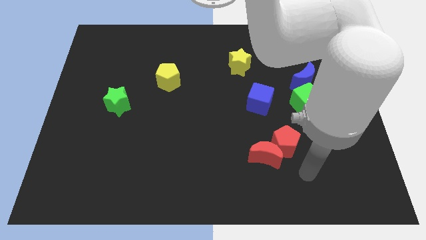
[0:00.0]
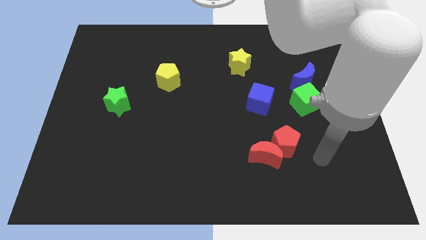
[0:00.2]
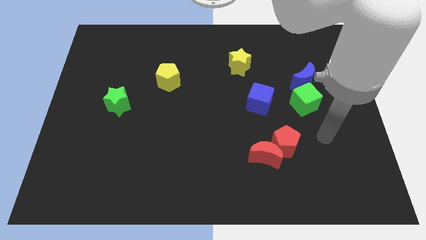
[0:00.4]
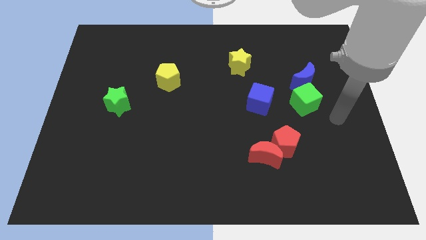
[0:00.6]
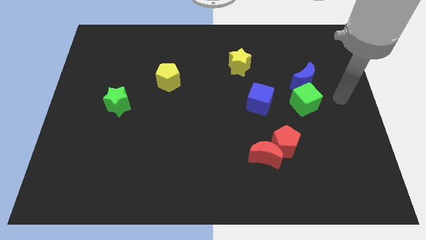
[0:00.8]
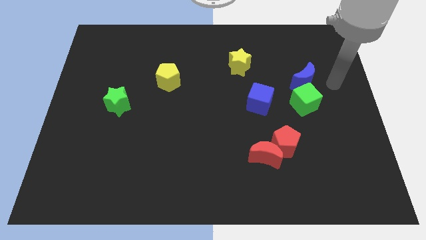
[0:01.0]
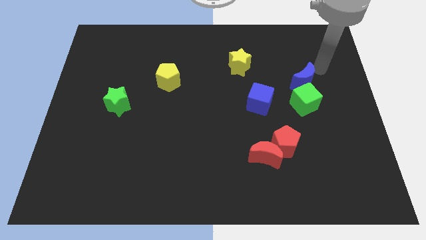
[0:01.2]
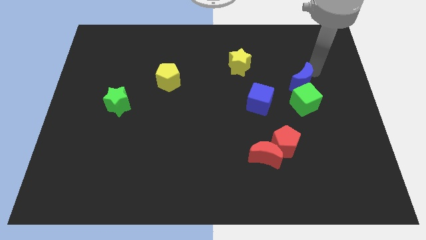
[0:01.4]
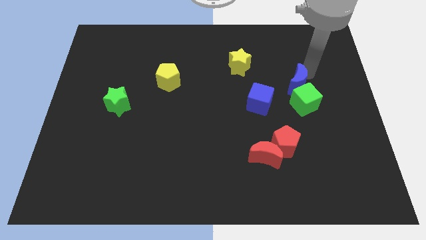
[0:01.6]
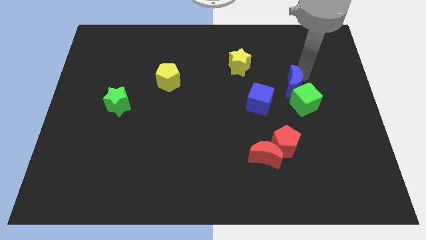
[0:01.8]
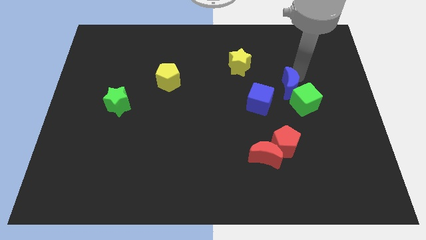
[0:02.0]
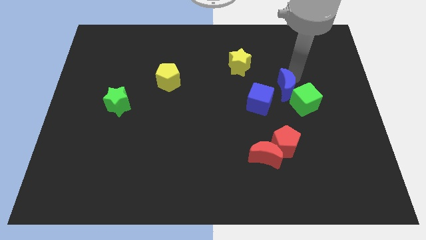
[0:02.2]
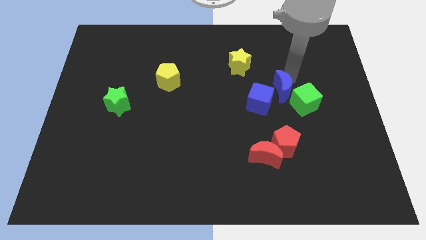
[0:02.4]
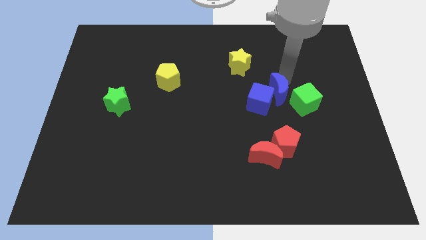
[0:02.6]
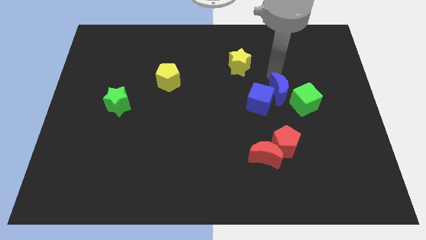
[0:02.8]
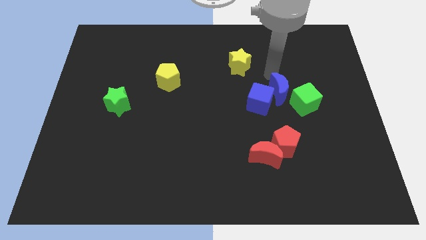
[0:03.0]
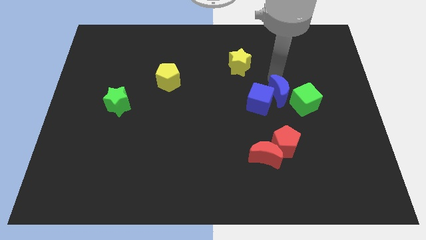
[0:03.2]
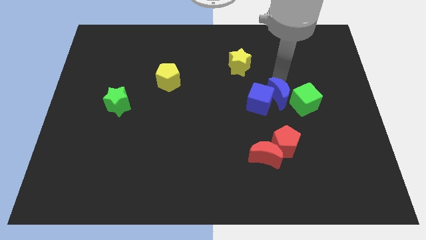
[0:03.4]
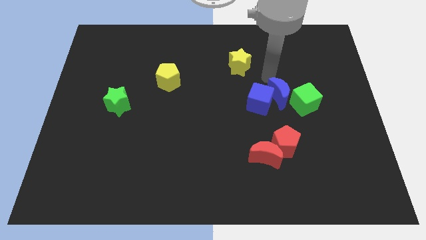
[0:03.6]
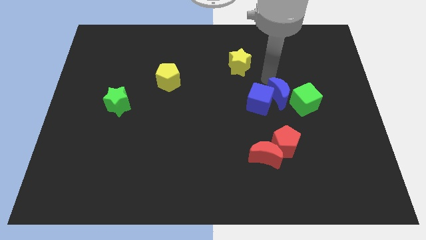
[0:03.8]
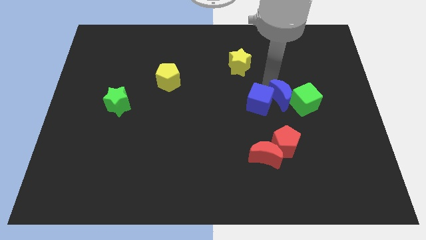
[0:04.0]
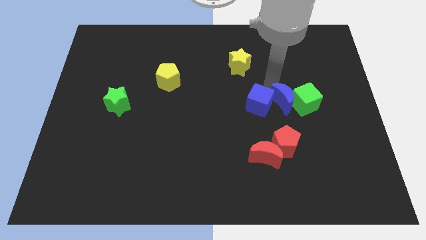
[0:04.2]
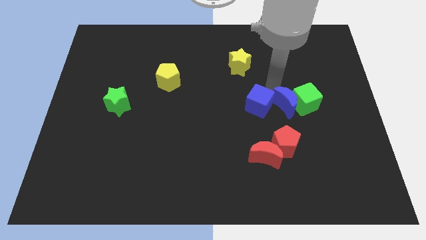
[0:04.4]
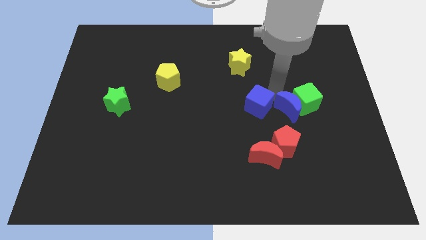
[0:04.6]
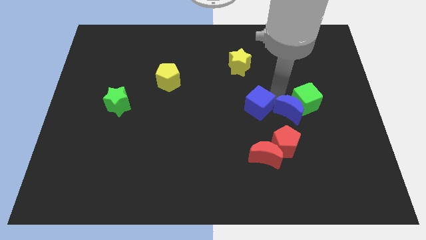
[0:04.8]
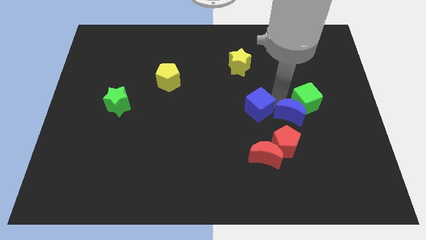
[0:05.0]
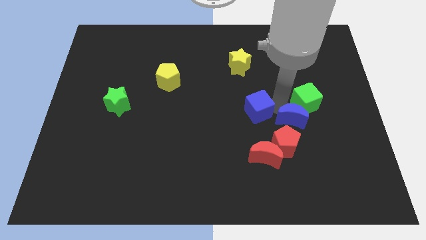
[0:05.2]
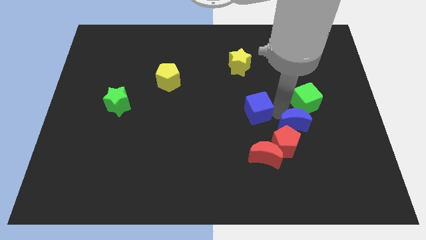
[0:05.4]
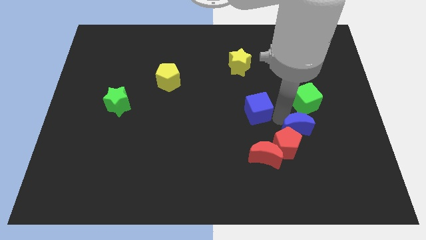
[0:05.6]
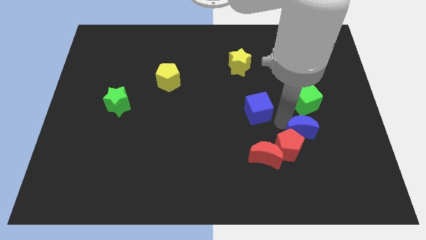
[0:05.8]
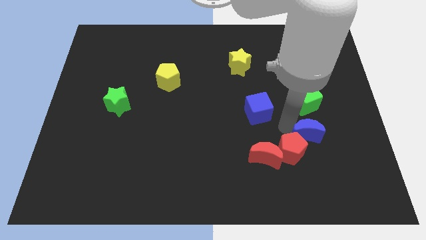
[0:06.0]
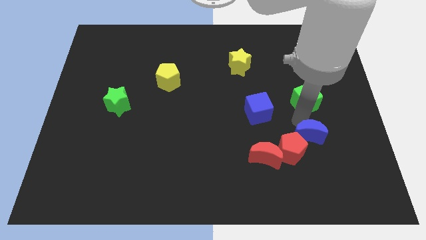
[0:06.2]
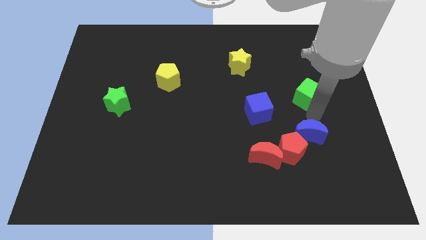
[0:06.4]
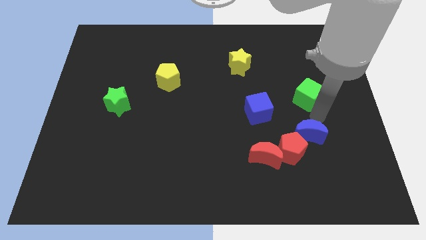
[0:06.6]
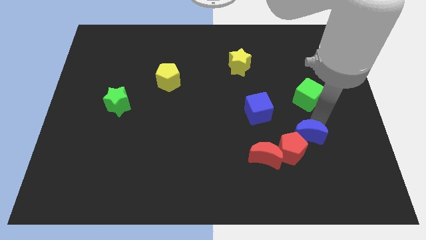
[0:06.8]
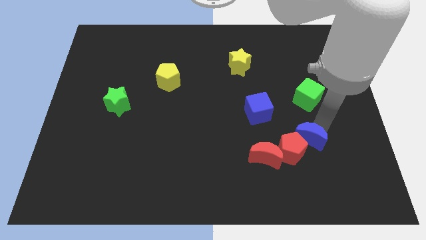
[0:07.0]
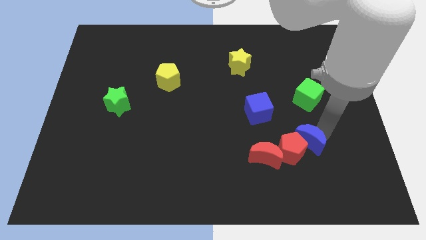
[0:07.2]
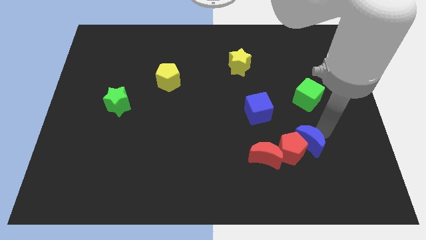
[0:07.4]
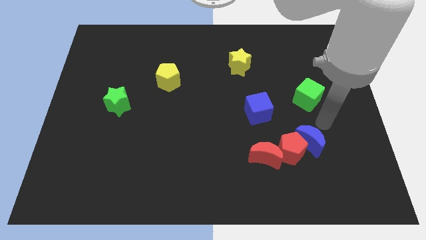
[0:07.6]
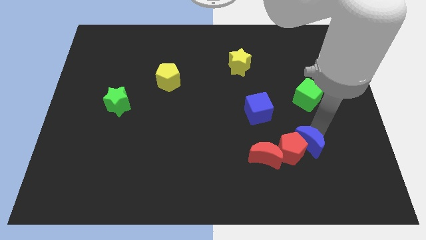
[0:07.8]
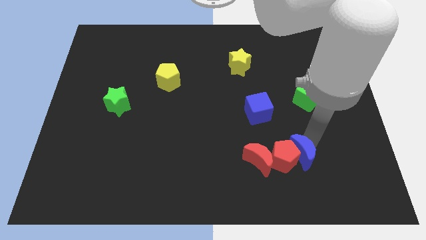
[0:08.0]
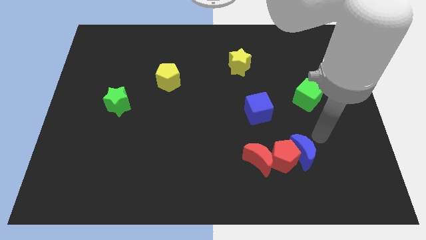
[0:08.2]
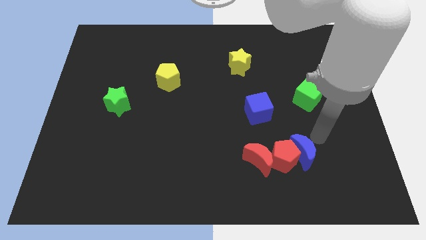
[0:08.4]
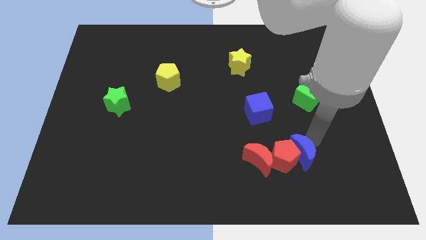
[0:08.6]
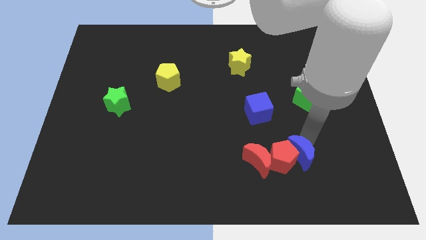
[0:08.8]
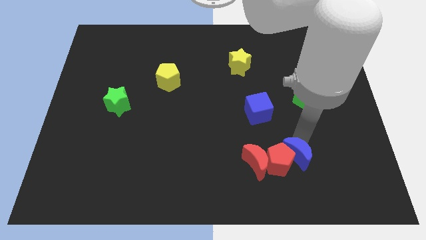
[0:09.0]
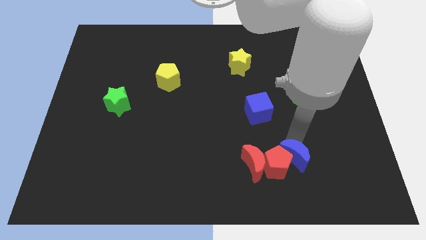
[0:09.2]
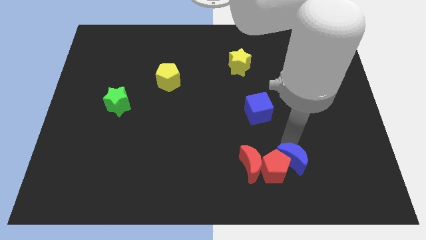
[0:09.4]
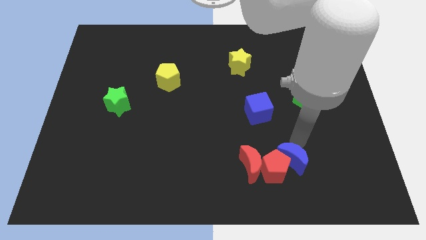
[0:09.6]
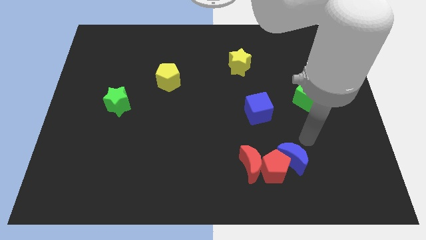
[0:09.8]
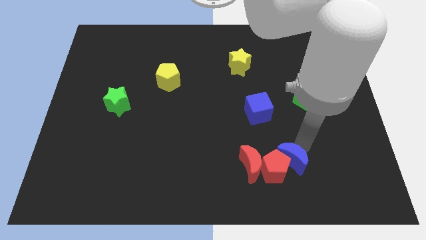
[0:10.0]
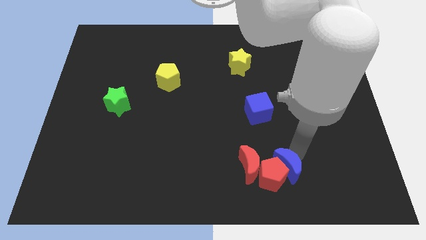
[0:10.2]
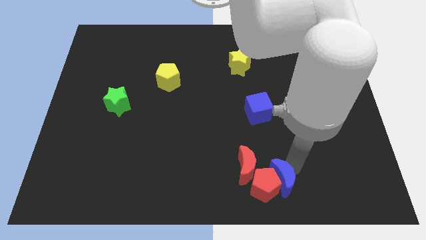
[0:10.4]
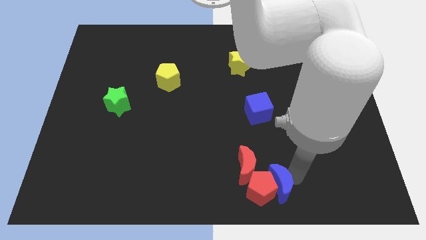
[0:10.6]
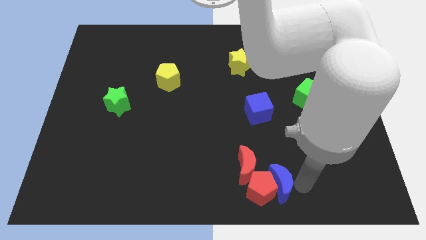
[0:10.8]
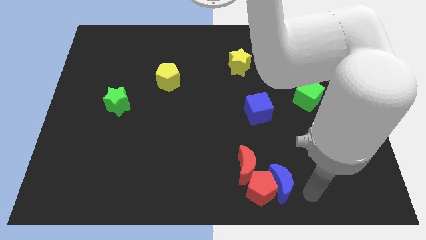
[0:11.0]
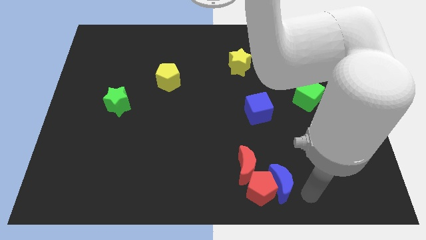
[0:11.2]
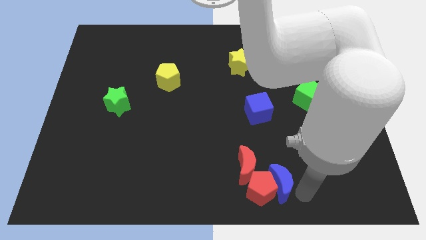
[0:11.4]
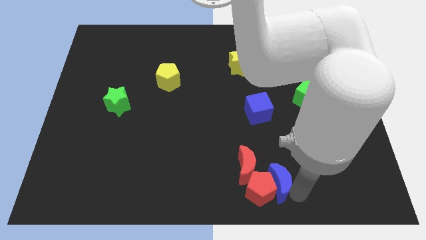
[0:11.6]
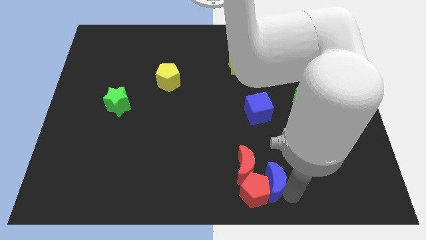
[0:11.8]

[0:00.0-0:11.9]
slide the blue moon to the bottom

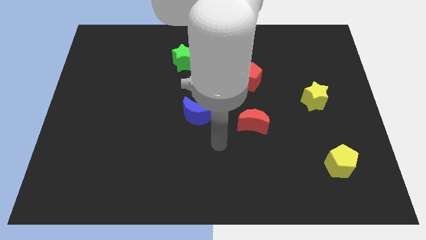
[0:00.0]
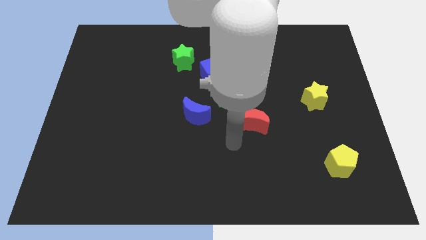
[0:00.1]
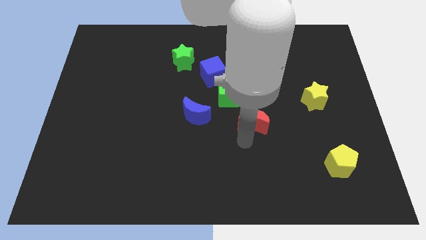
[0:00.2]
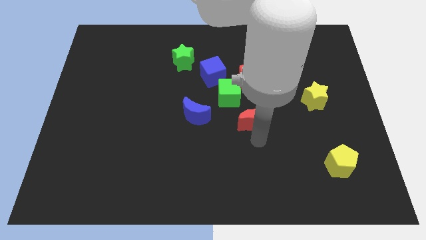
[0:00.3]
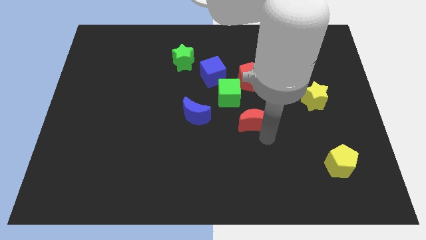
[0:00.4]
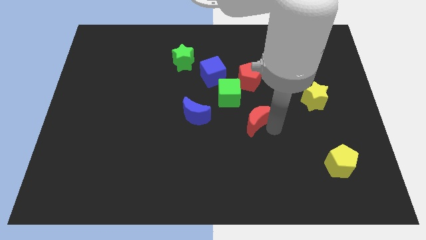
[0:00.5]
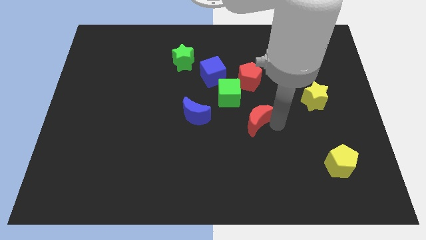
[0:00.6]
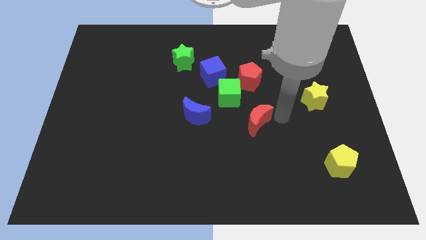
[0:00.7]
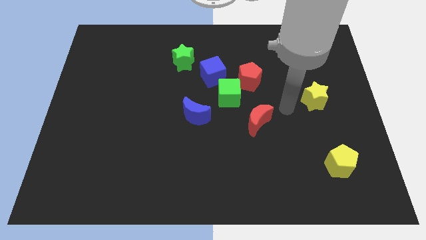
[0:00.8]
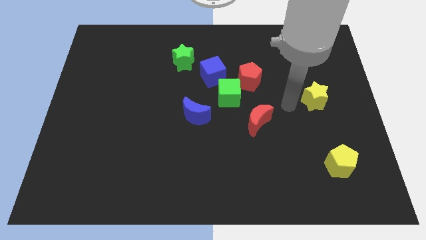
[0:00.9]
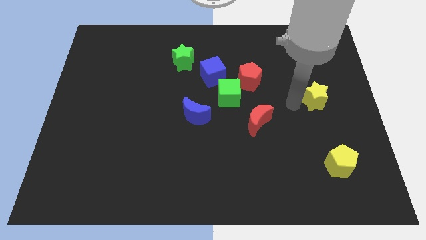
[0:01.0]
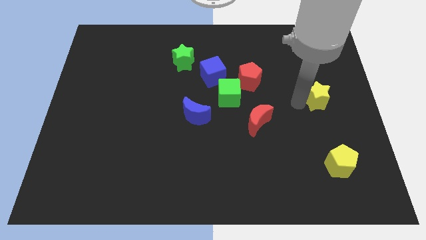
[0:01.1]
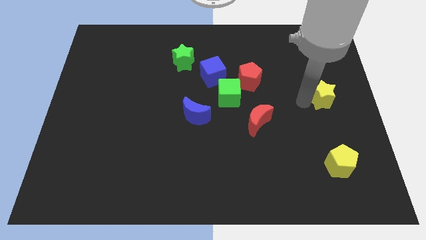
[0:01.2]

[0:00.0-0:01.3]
move the yellow star to the right side of the board
